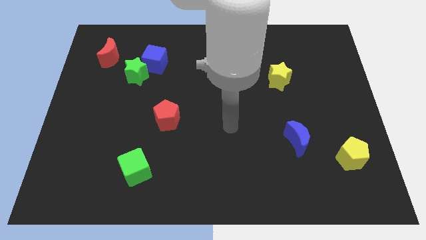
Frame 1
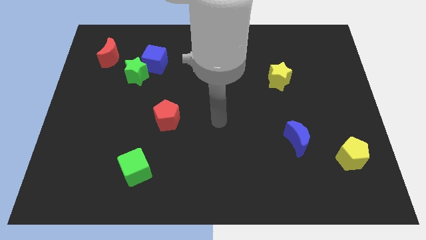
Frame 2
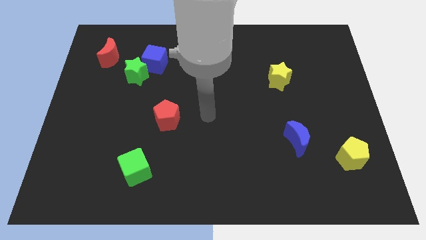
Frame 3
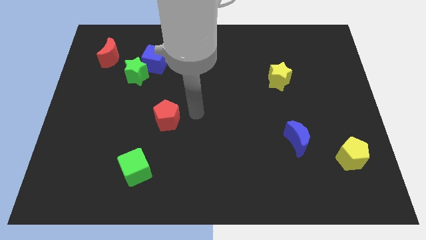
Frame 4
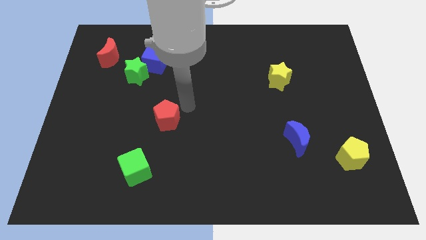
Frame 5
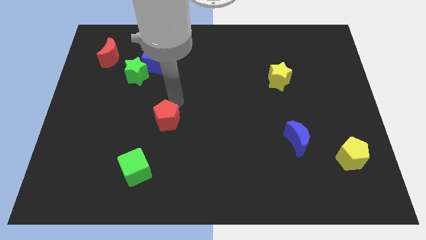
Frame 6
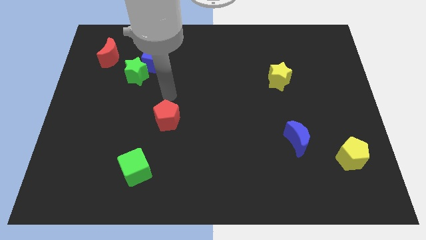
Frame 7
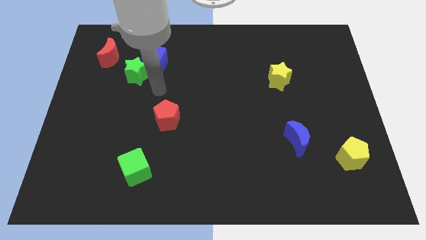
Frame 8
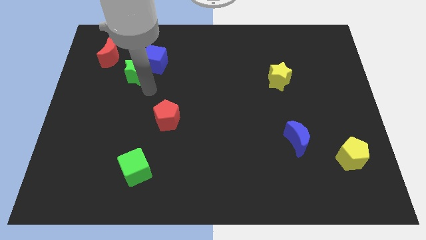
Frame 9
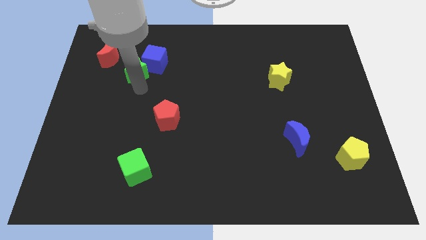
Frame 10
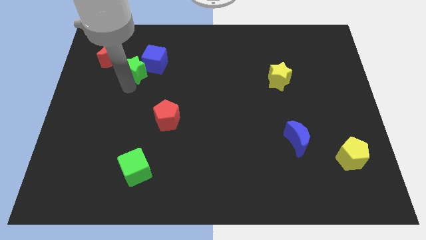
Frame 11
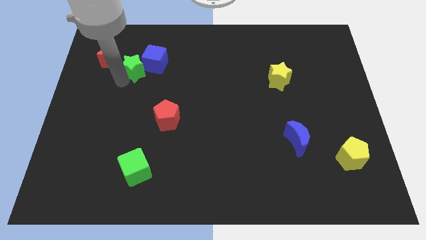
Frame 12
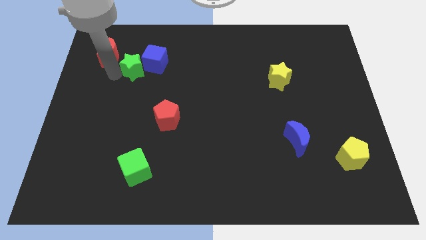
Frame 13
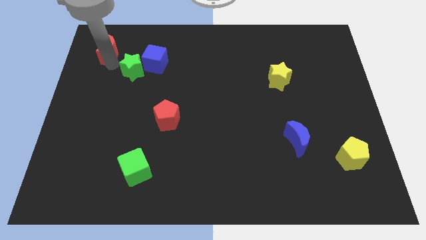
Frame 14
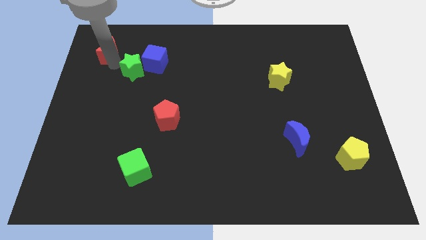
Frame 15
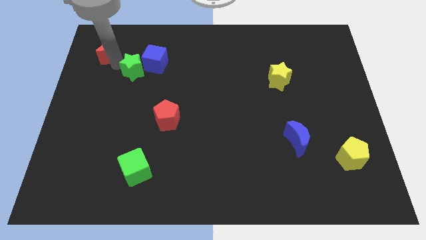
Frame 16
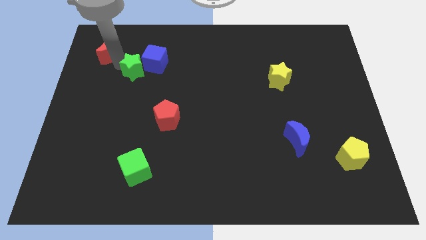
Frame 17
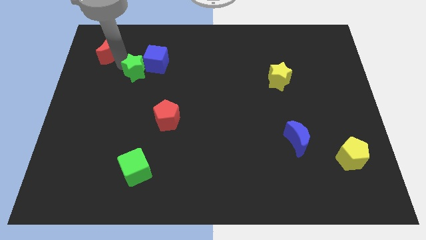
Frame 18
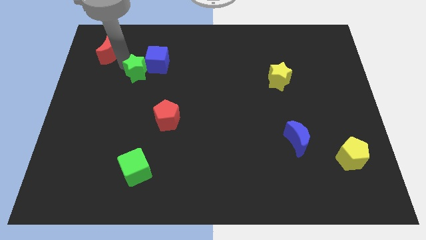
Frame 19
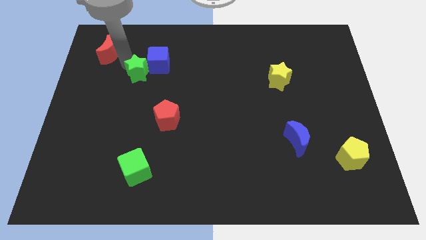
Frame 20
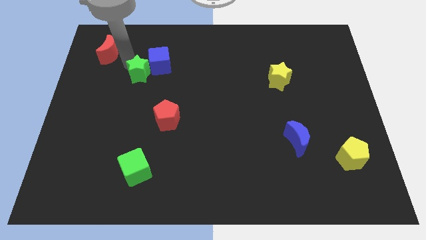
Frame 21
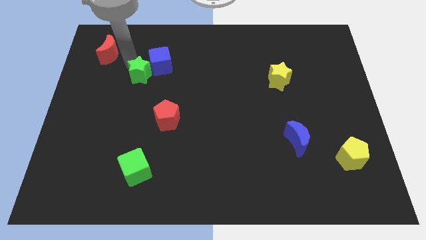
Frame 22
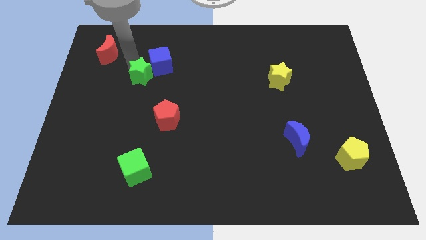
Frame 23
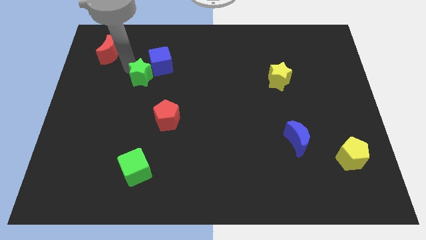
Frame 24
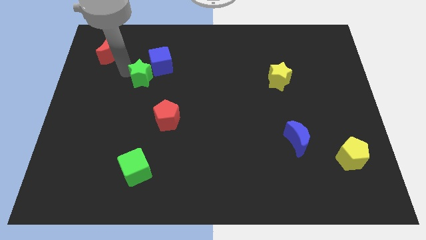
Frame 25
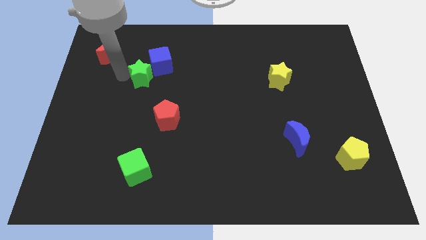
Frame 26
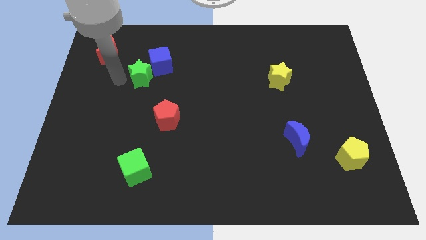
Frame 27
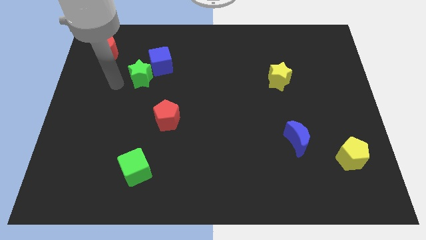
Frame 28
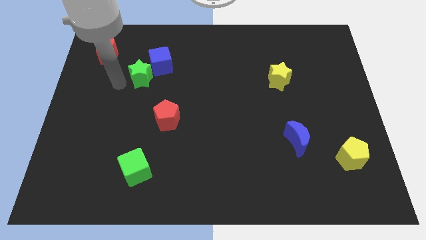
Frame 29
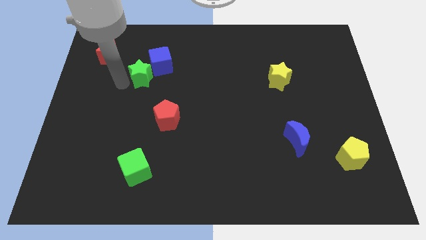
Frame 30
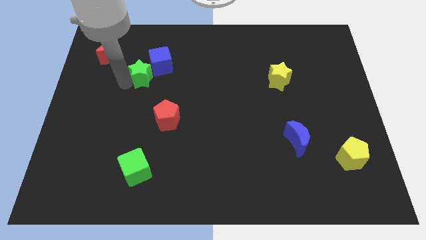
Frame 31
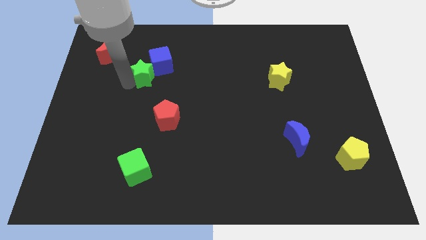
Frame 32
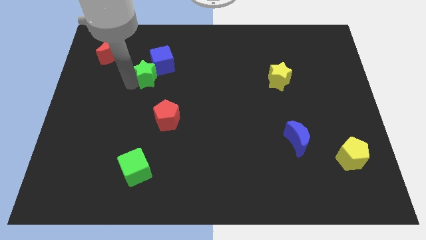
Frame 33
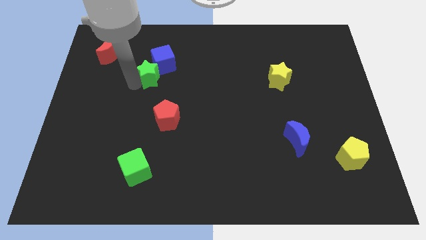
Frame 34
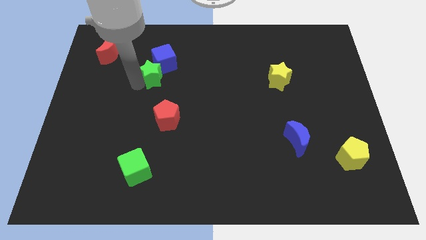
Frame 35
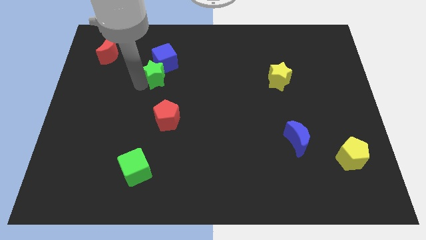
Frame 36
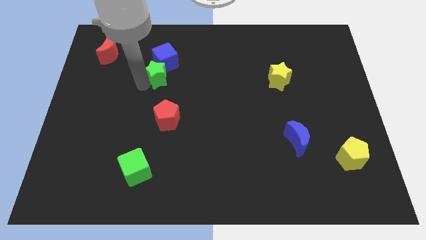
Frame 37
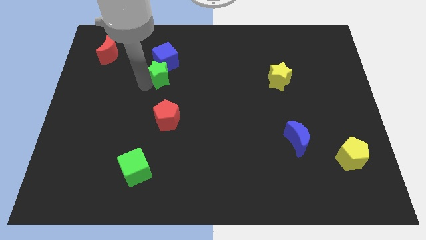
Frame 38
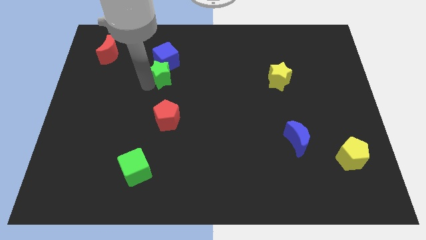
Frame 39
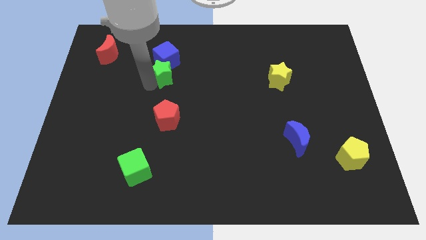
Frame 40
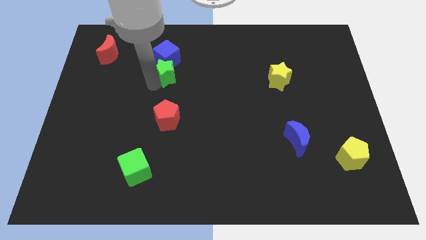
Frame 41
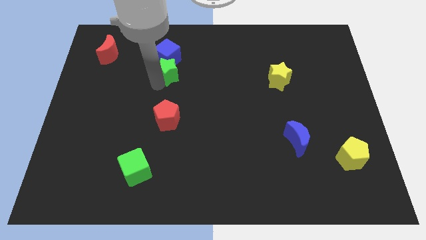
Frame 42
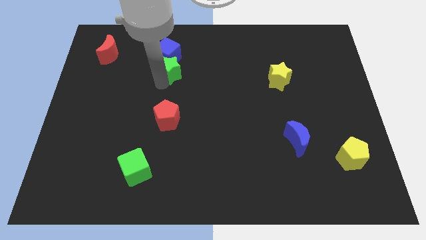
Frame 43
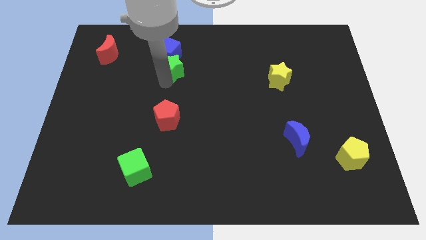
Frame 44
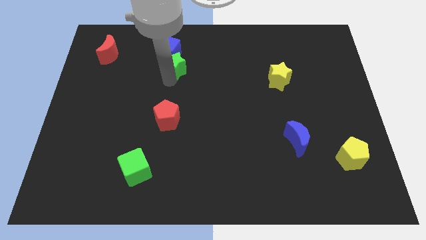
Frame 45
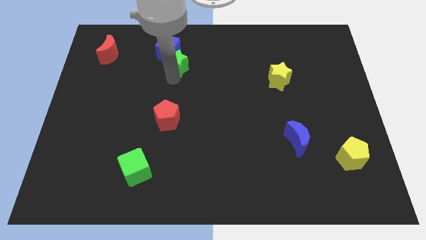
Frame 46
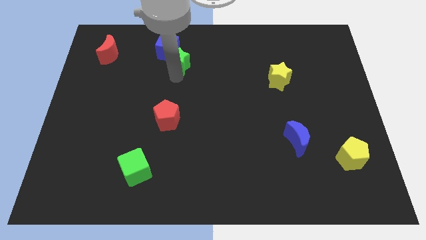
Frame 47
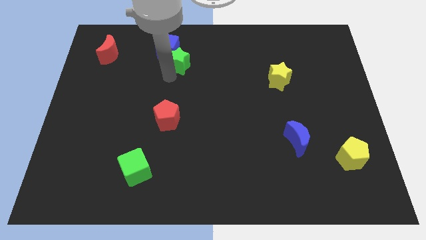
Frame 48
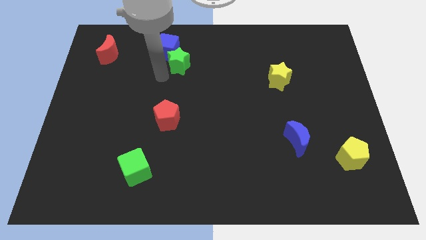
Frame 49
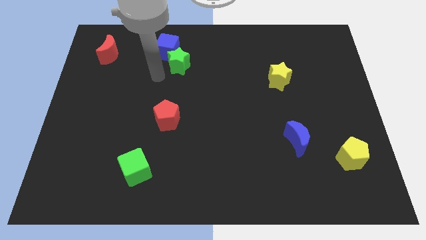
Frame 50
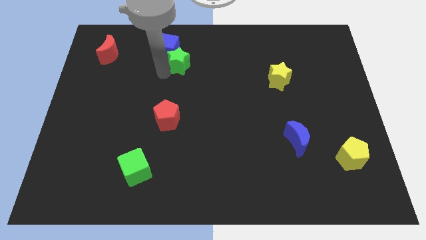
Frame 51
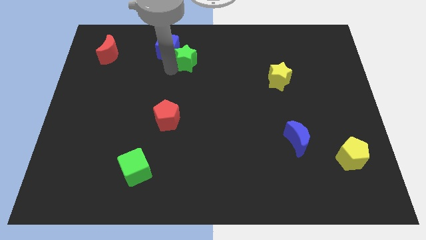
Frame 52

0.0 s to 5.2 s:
push the green star to the right side of the blue cube

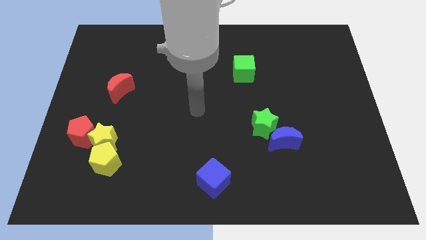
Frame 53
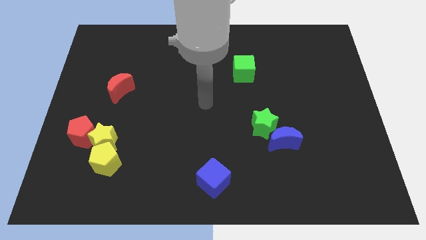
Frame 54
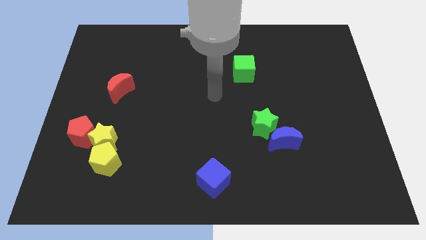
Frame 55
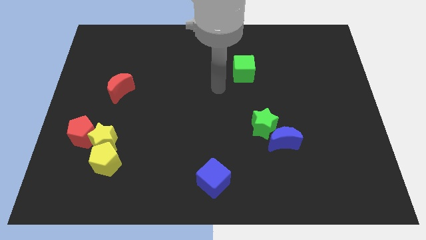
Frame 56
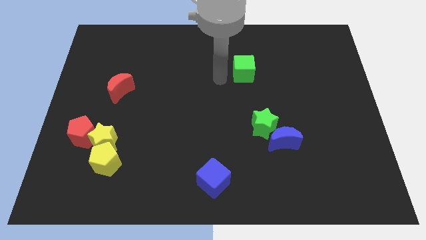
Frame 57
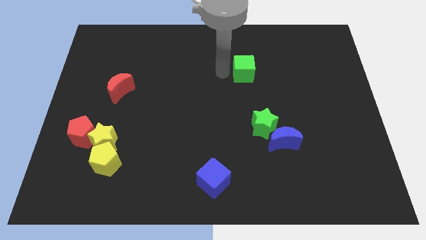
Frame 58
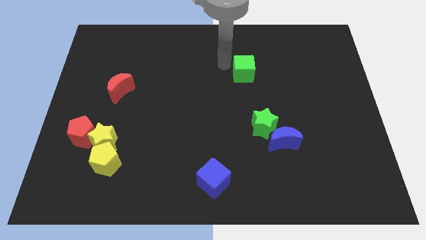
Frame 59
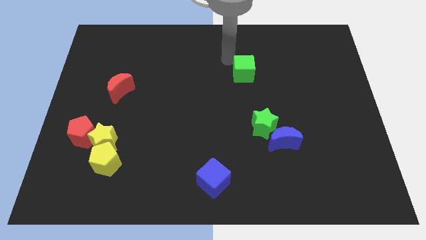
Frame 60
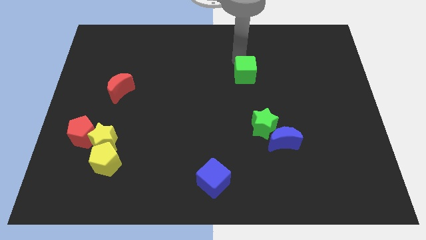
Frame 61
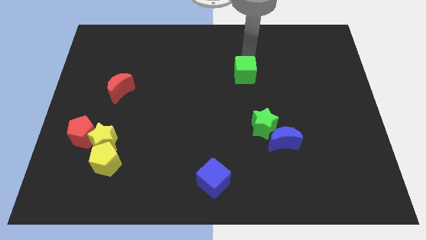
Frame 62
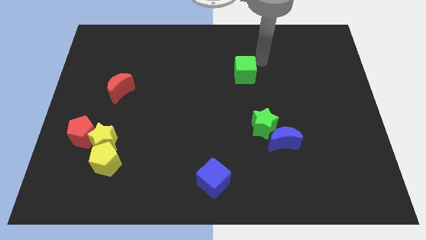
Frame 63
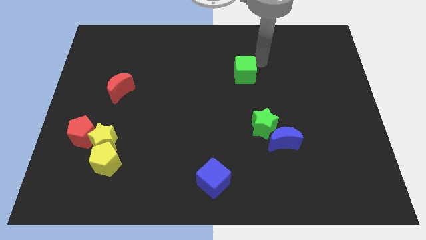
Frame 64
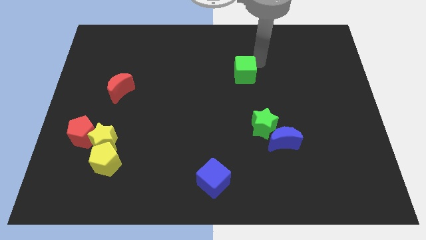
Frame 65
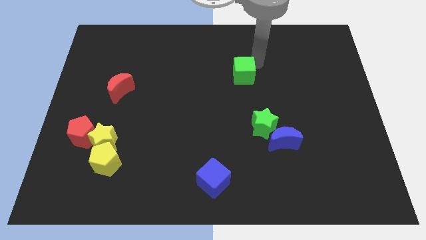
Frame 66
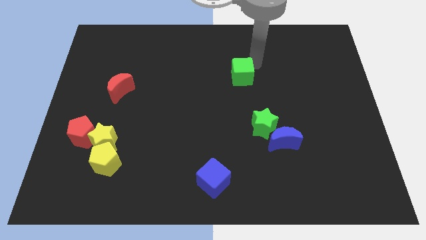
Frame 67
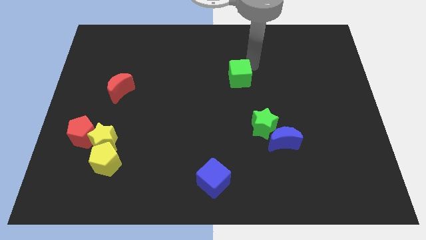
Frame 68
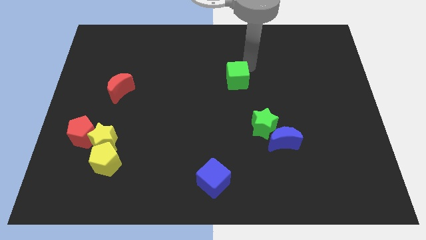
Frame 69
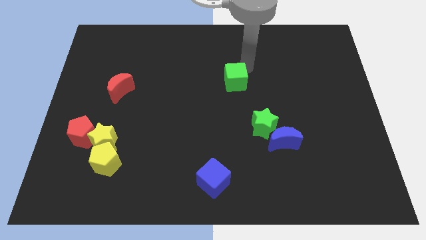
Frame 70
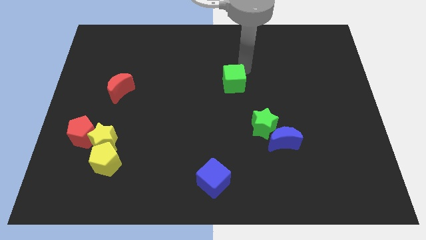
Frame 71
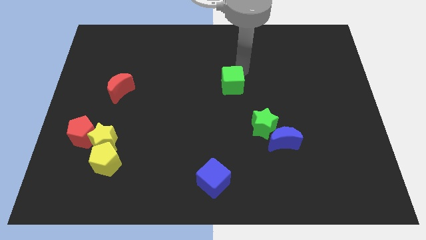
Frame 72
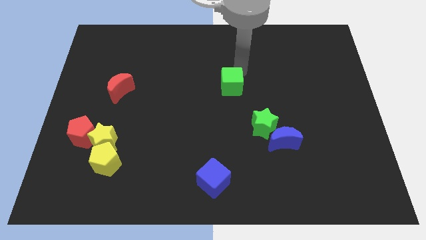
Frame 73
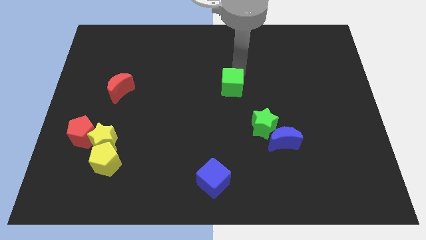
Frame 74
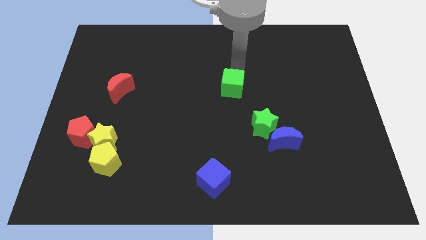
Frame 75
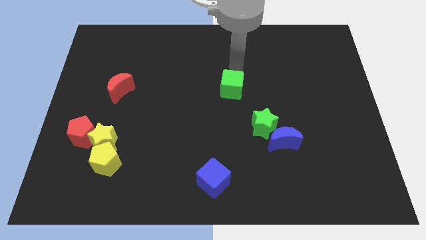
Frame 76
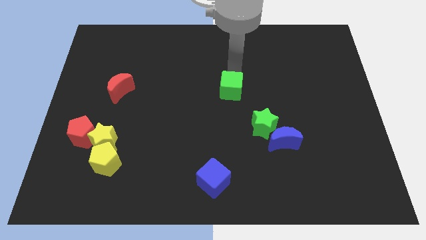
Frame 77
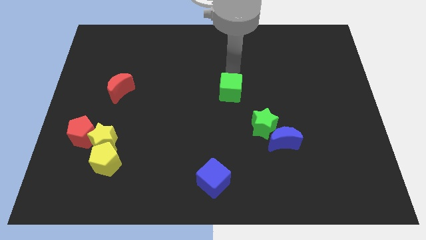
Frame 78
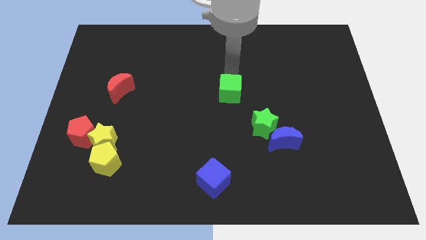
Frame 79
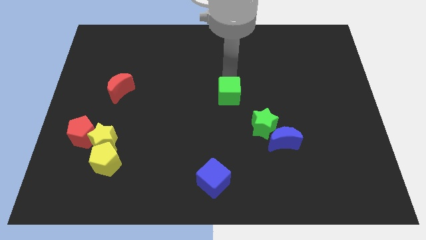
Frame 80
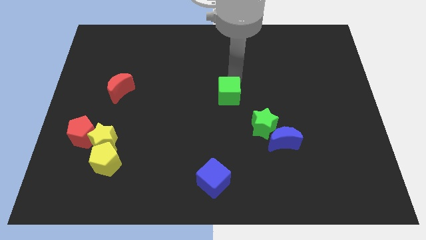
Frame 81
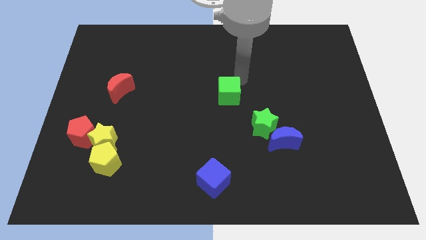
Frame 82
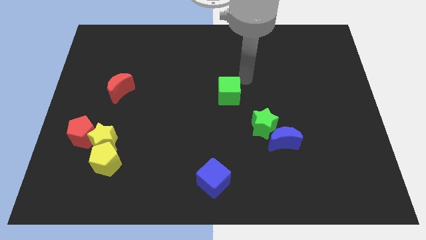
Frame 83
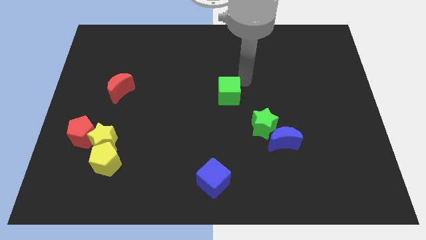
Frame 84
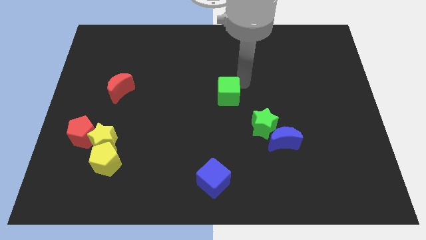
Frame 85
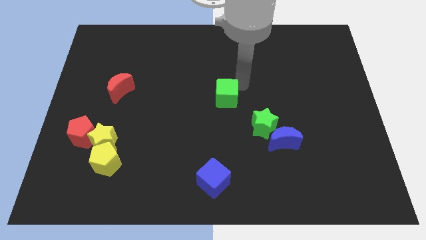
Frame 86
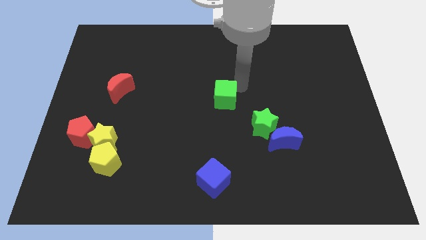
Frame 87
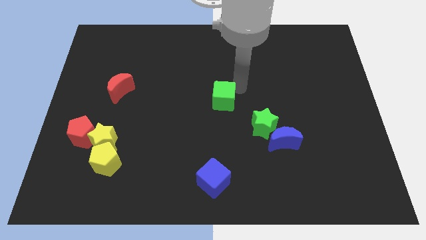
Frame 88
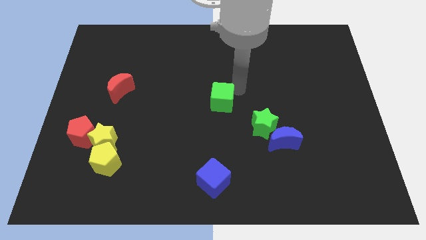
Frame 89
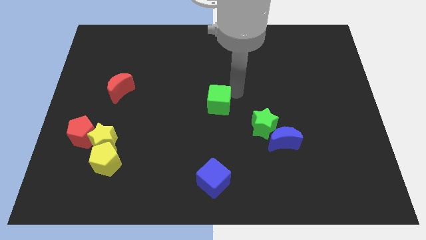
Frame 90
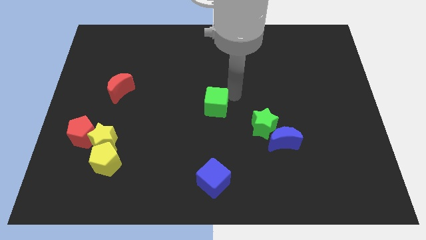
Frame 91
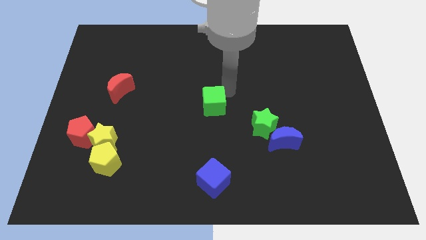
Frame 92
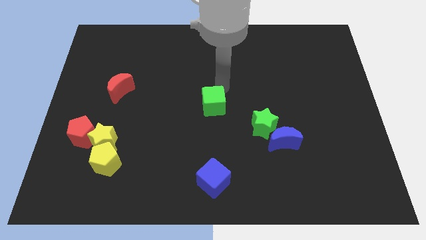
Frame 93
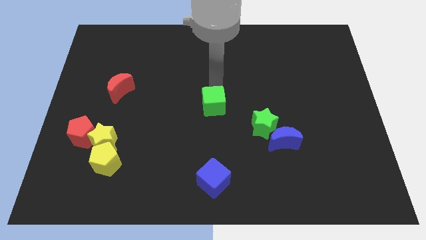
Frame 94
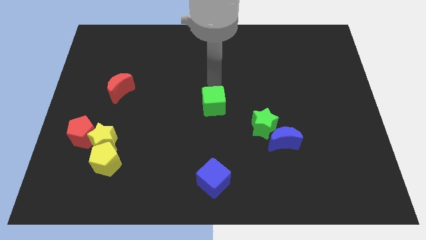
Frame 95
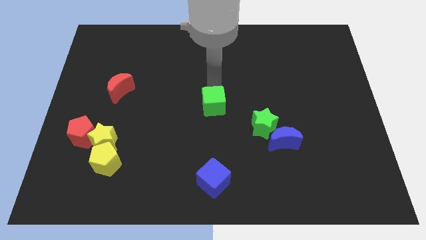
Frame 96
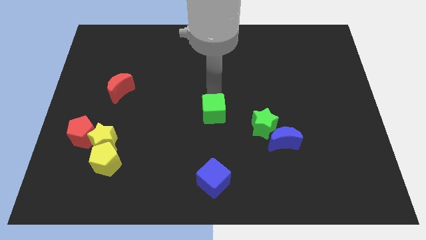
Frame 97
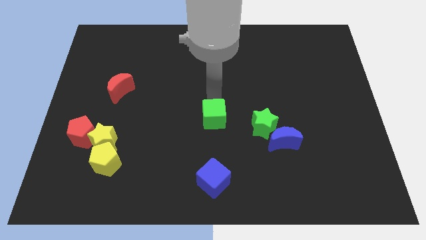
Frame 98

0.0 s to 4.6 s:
push the green cube to the top side of the blue cube
